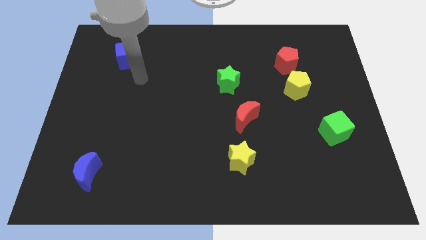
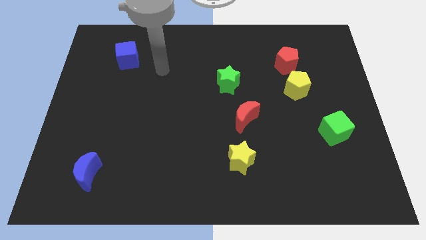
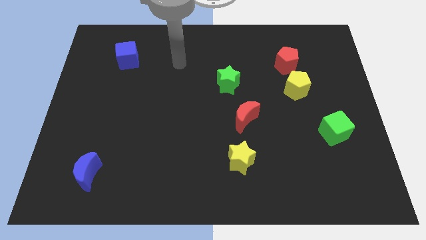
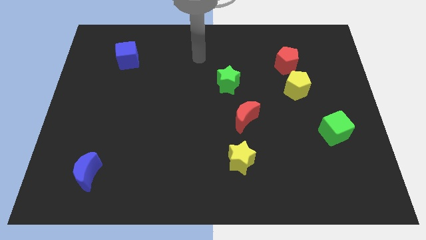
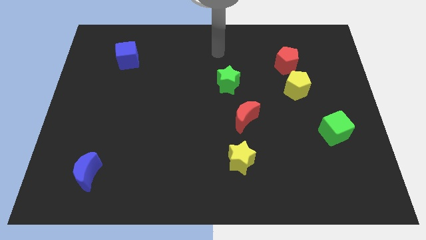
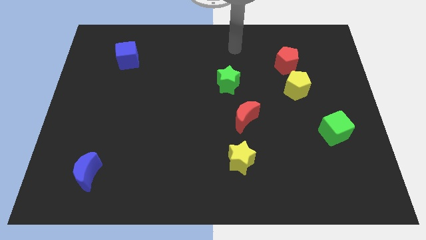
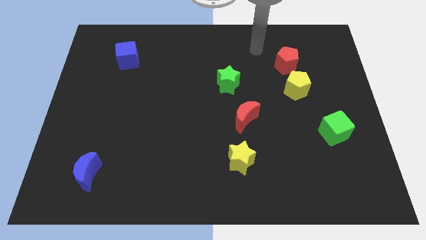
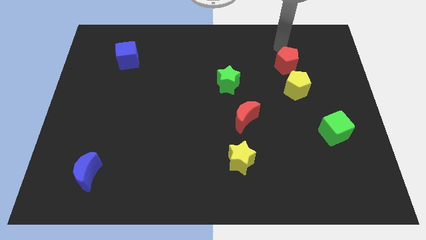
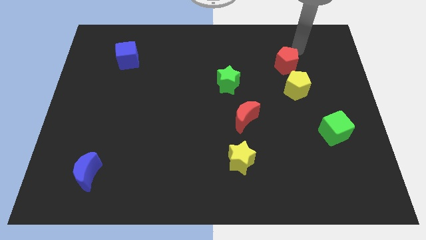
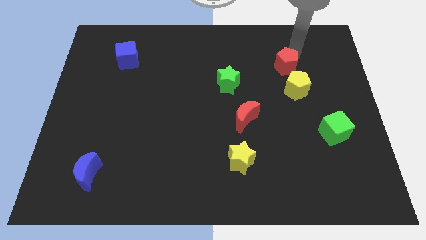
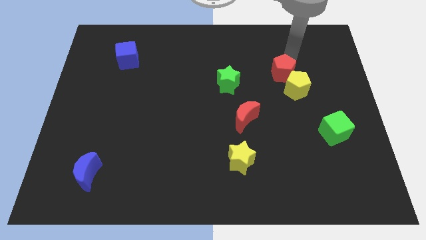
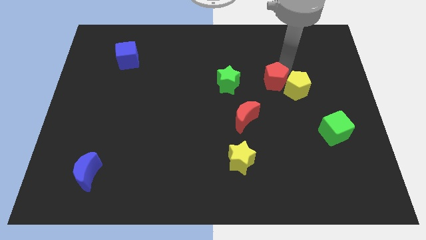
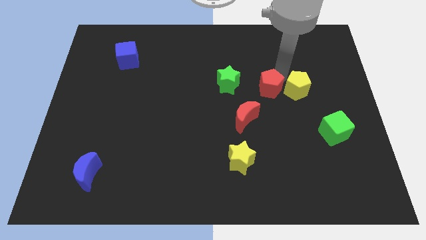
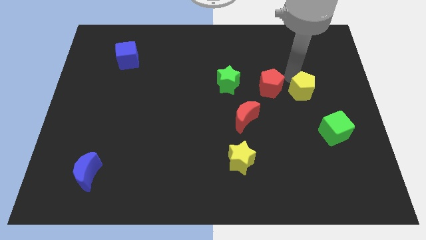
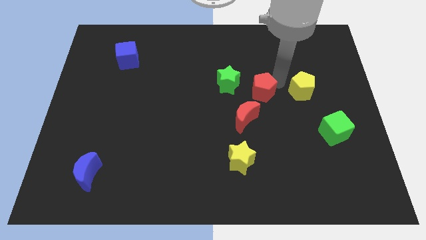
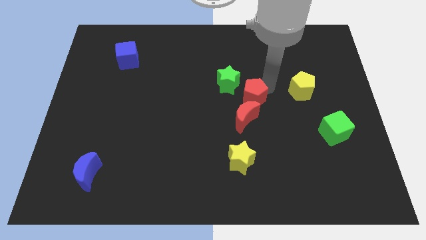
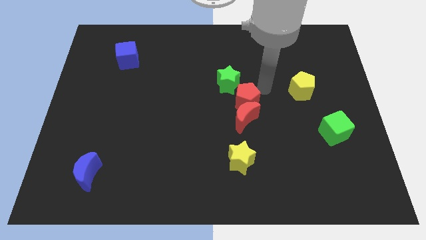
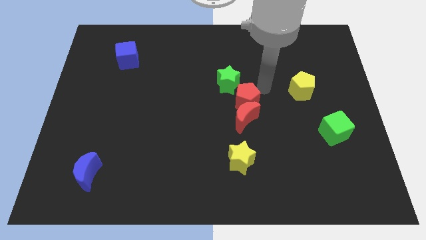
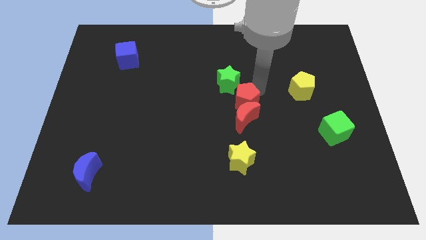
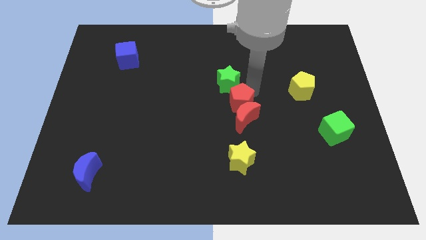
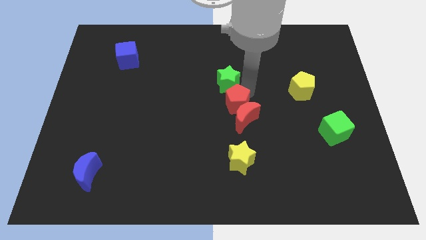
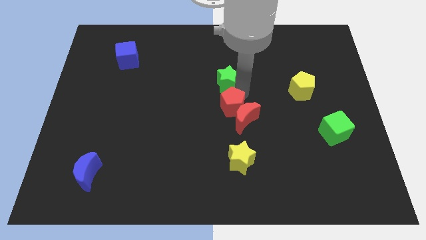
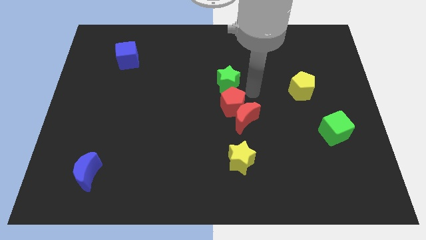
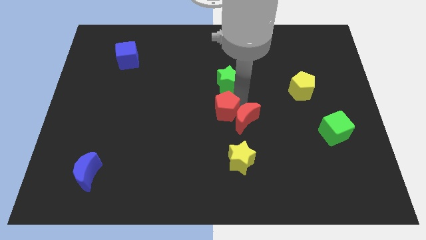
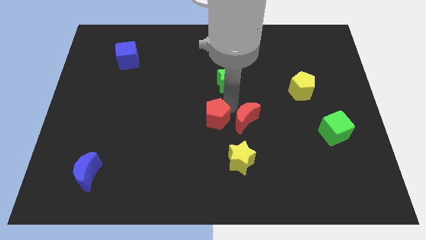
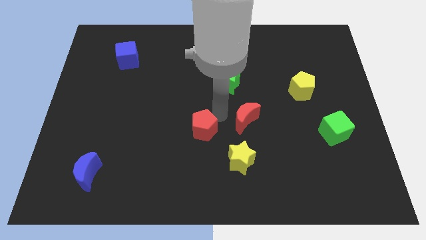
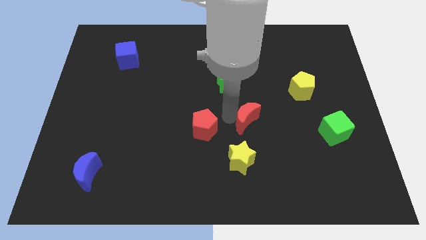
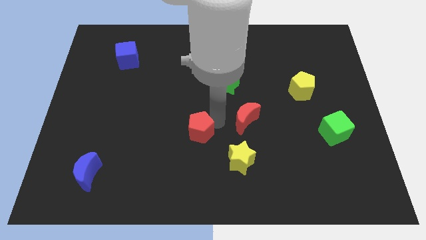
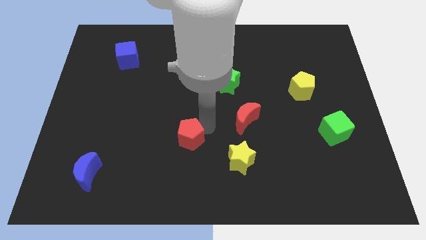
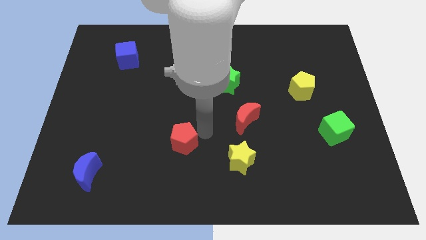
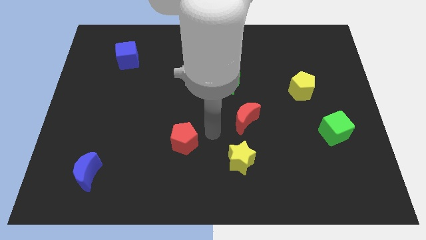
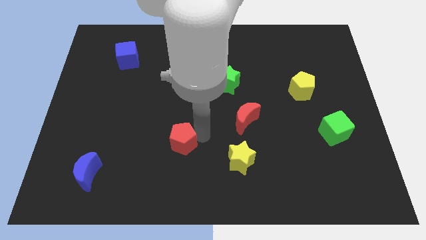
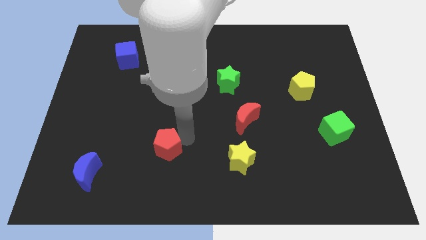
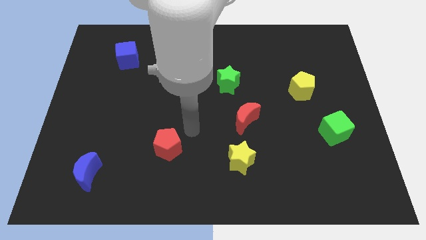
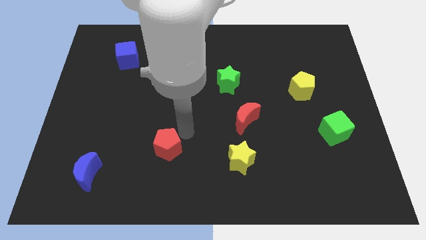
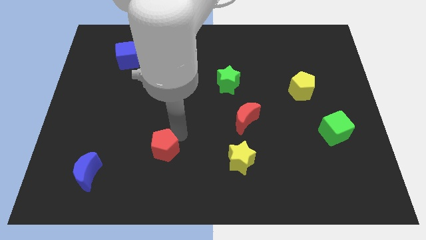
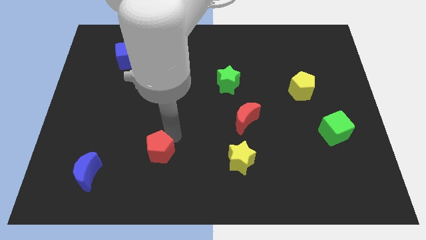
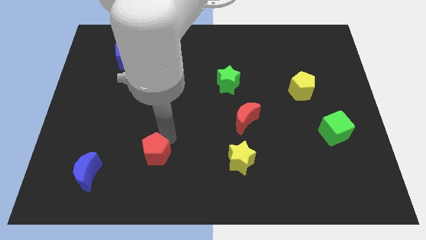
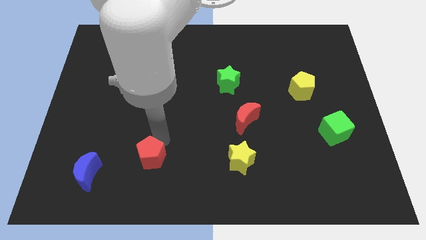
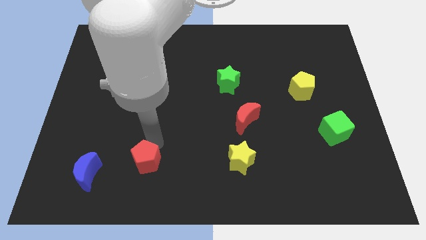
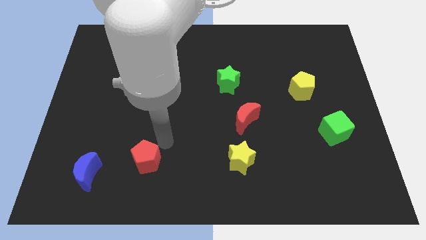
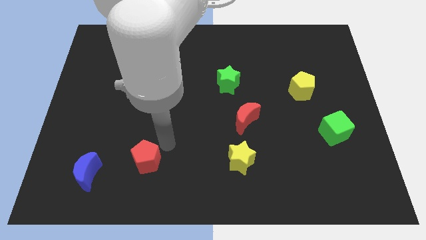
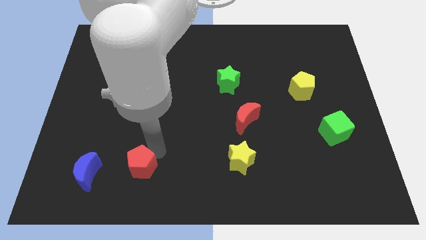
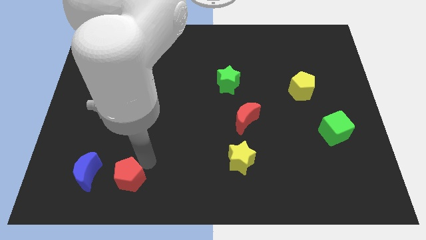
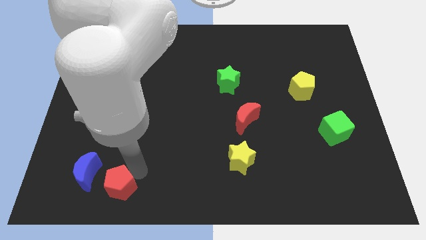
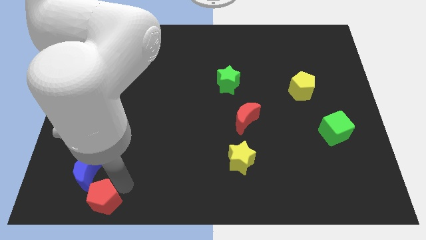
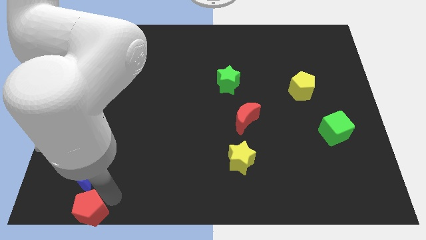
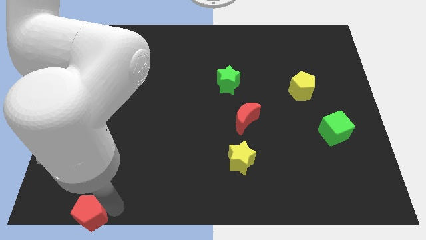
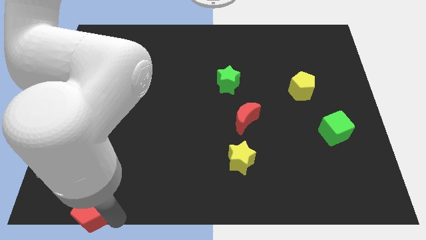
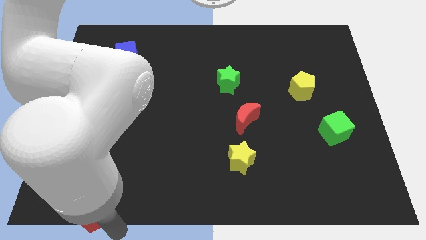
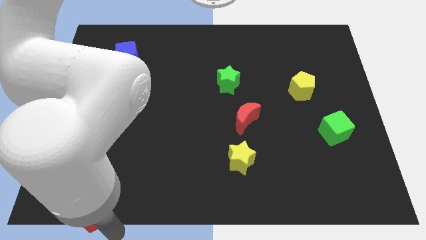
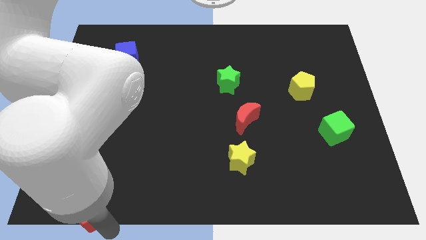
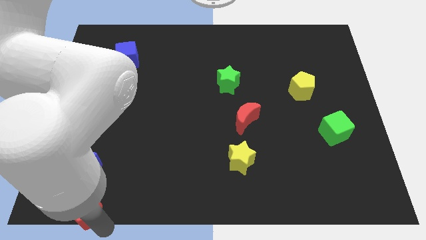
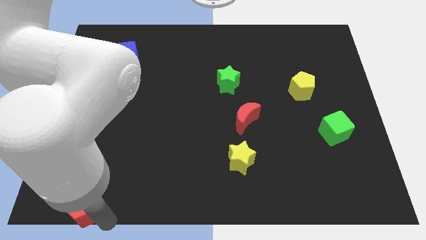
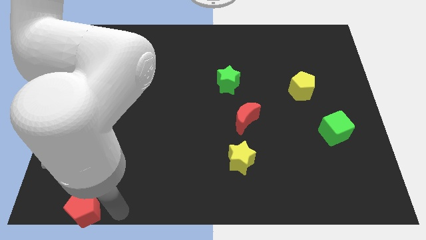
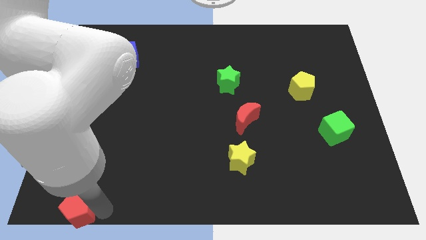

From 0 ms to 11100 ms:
push the red pentagon to the lower left corner

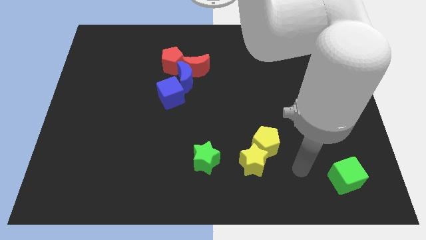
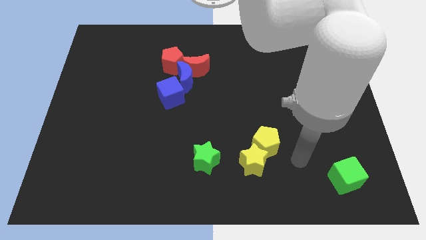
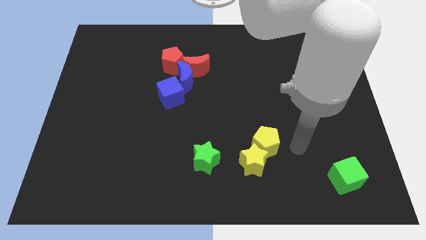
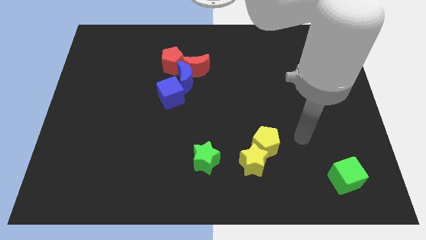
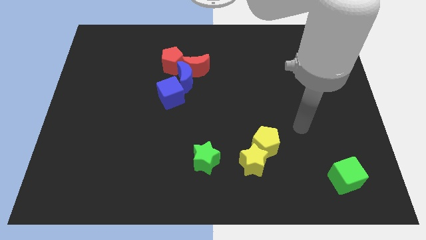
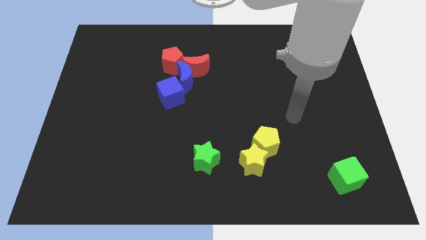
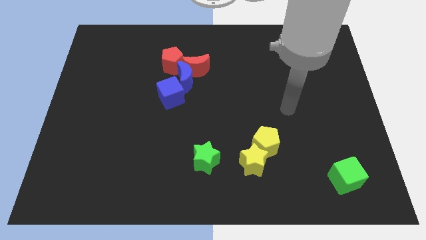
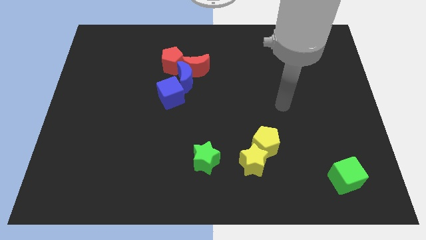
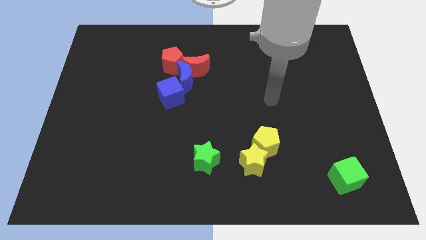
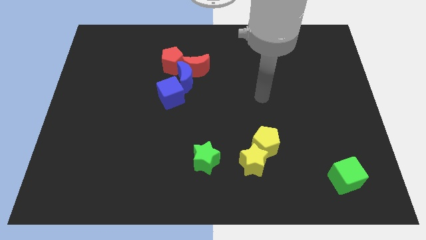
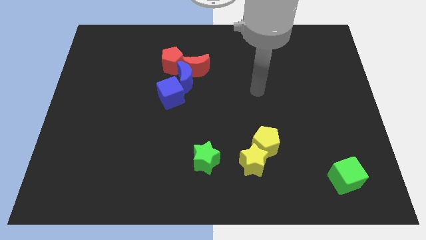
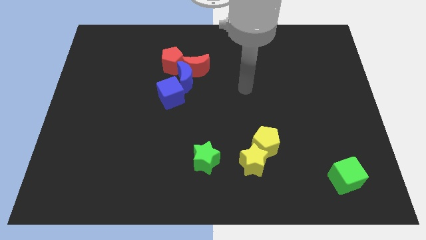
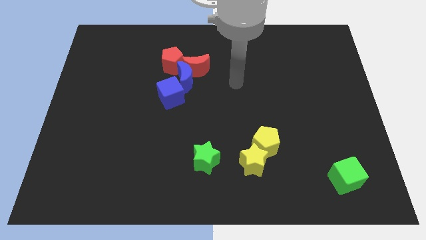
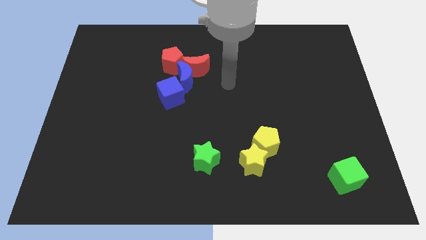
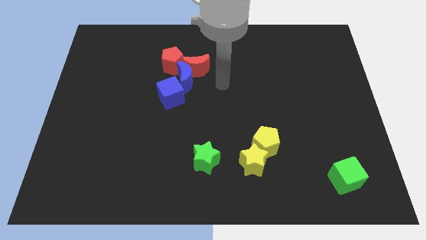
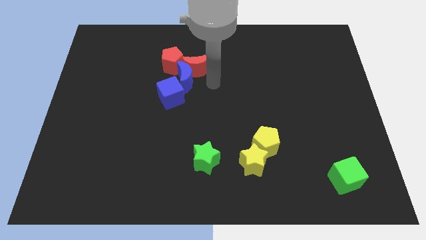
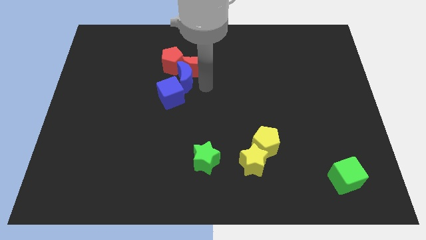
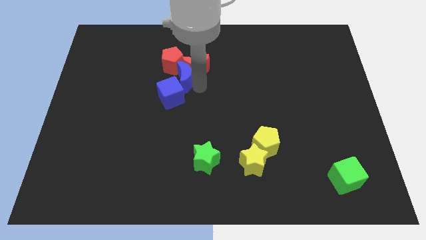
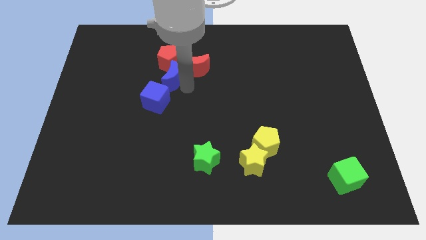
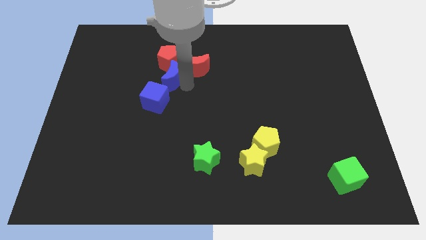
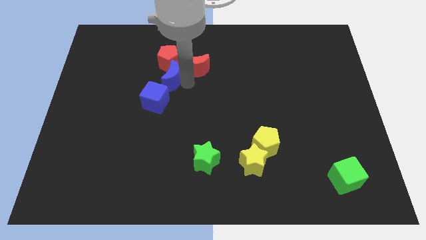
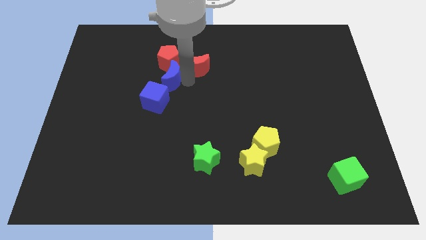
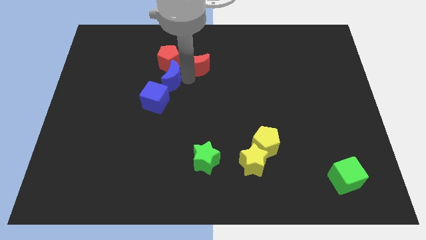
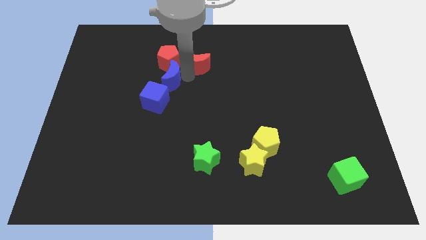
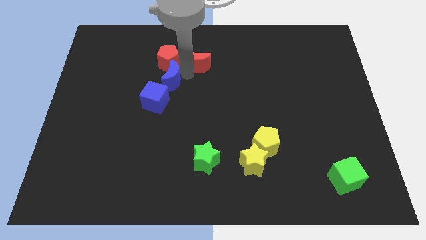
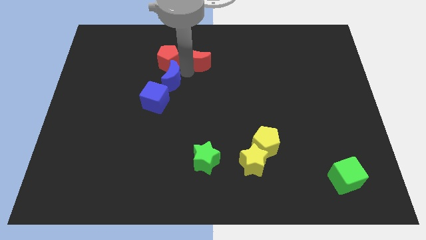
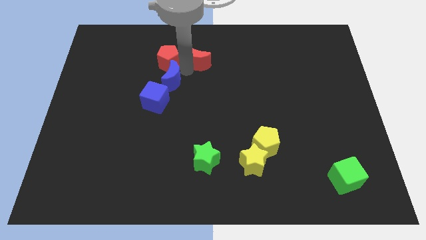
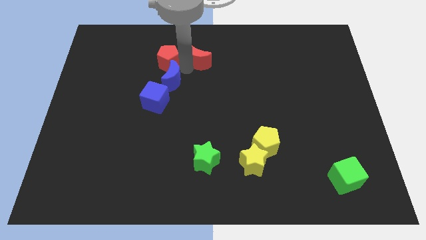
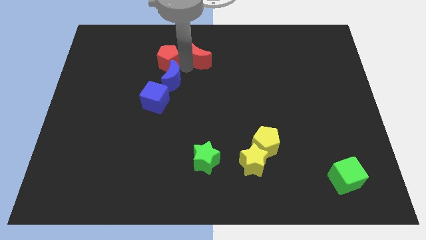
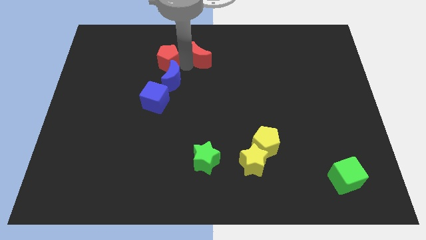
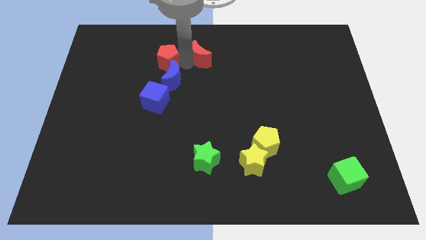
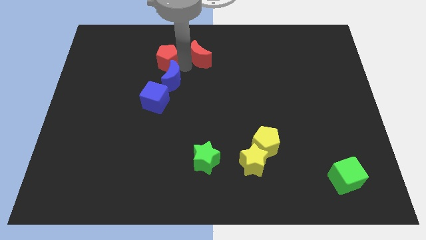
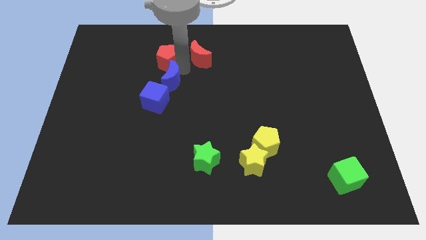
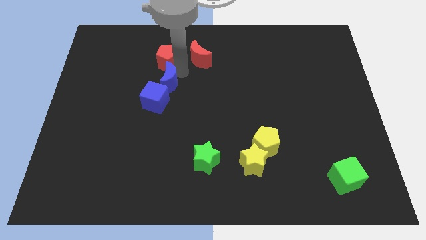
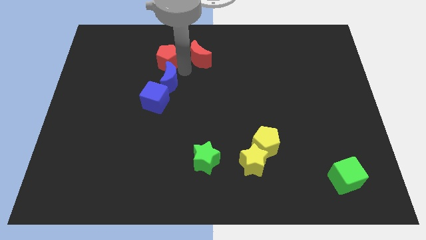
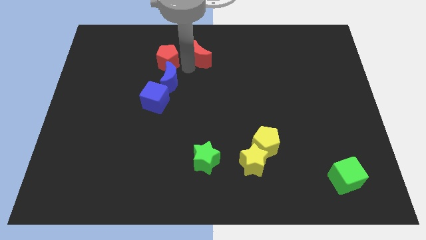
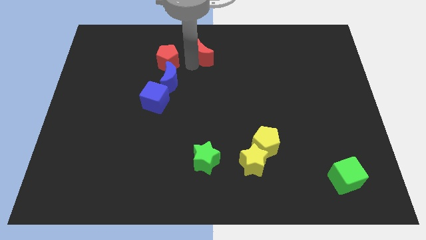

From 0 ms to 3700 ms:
move the red moon to the towards your base
